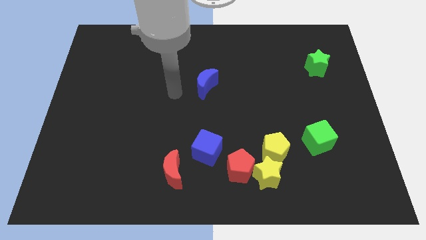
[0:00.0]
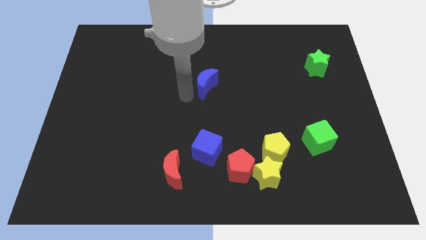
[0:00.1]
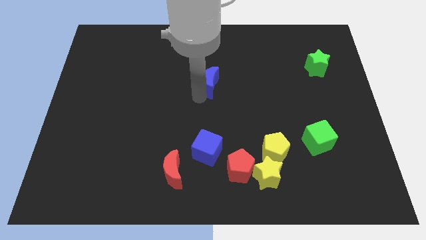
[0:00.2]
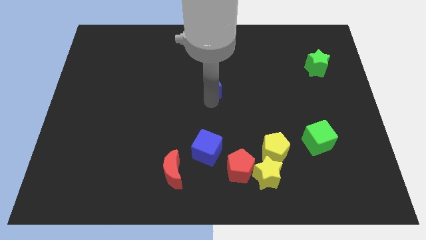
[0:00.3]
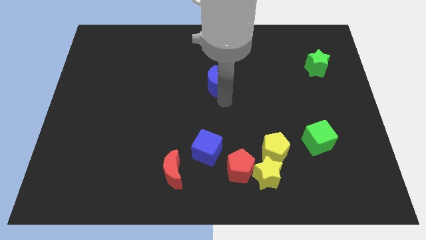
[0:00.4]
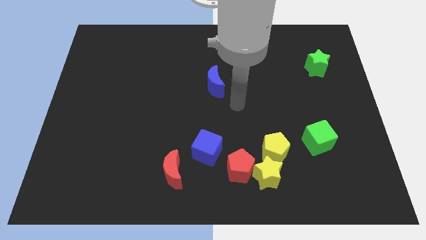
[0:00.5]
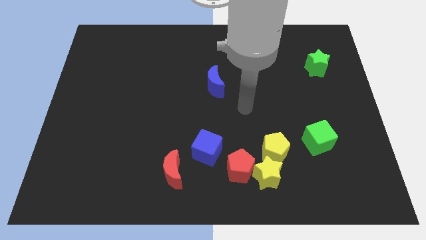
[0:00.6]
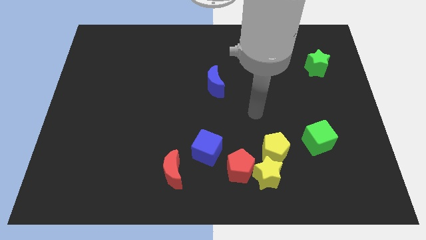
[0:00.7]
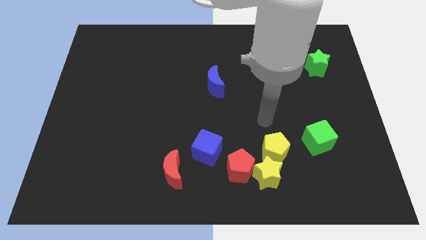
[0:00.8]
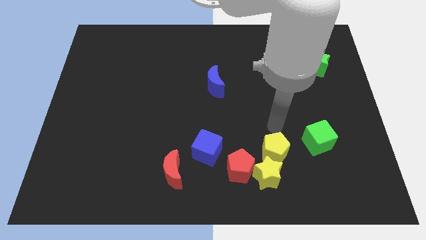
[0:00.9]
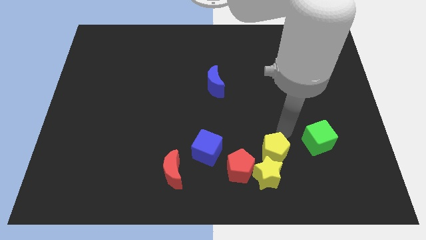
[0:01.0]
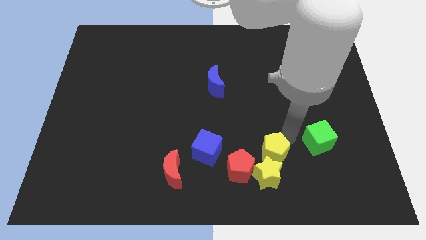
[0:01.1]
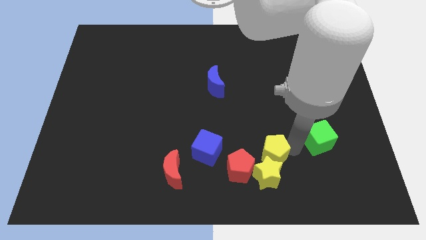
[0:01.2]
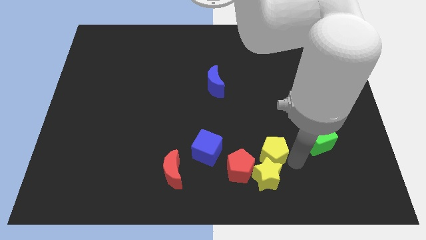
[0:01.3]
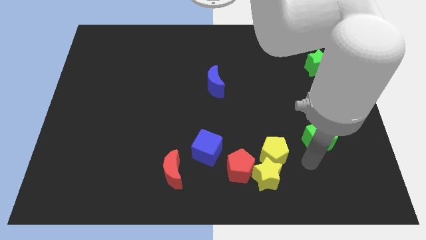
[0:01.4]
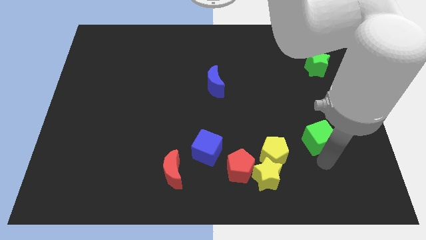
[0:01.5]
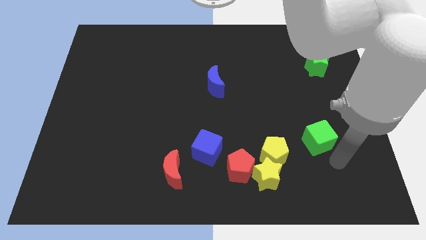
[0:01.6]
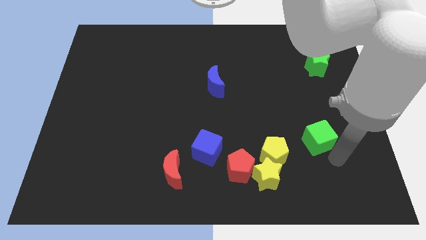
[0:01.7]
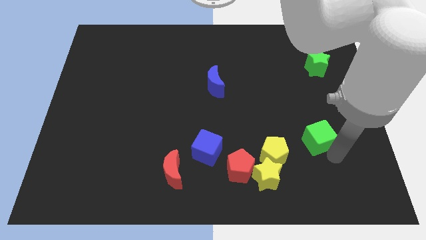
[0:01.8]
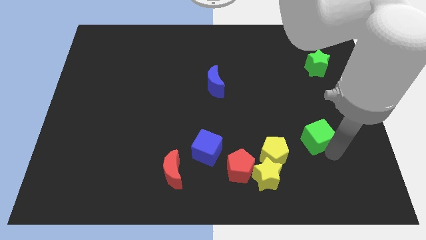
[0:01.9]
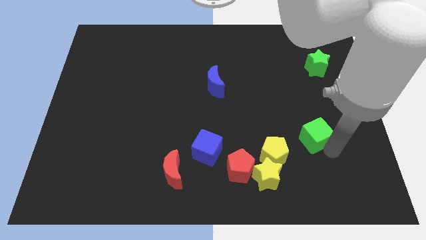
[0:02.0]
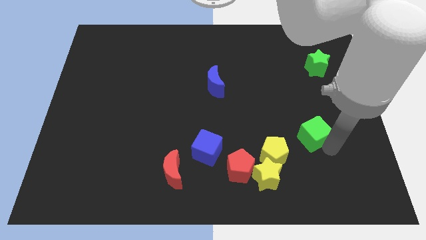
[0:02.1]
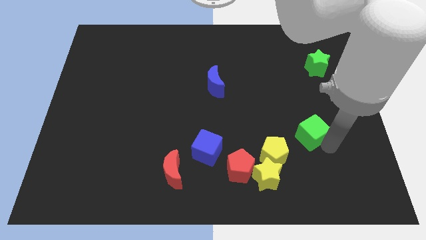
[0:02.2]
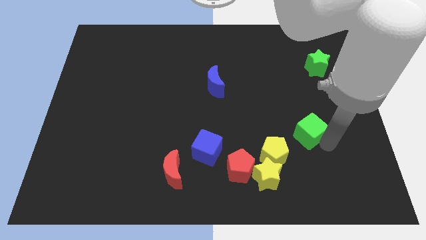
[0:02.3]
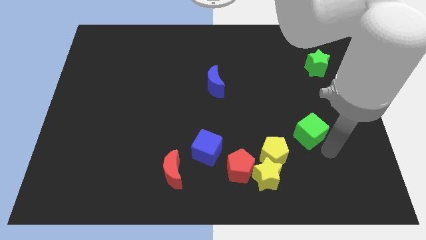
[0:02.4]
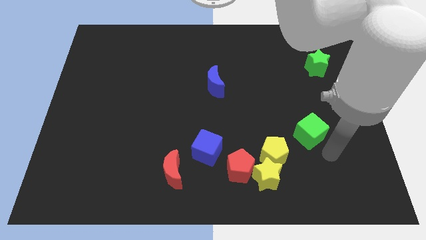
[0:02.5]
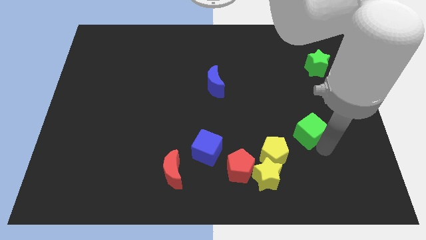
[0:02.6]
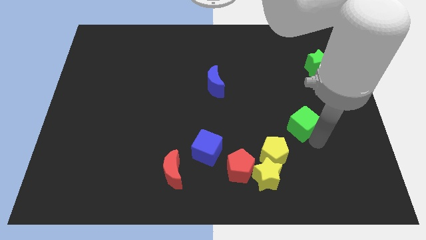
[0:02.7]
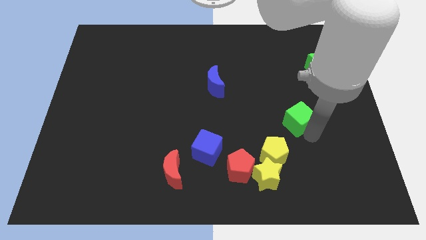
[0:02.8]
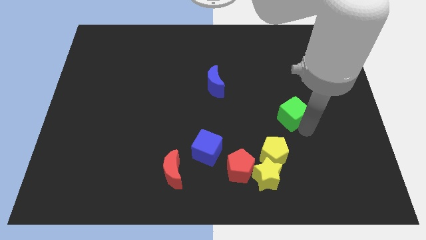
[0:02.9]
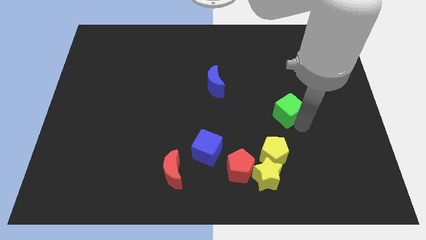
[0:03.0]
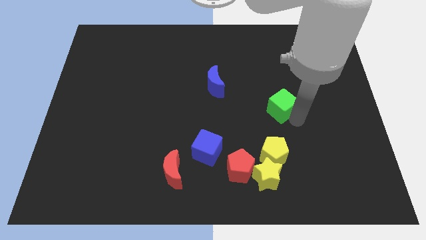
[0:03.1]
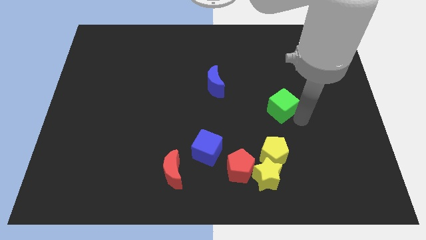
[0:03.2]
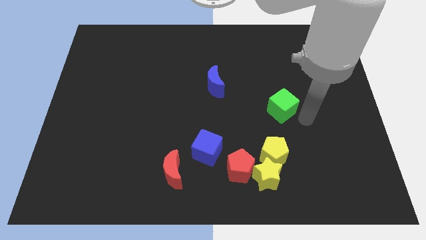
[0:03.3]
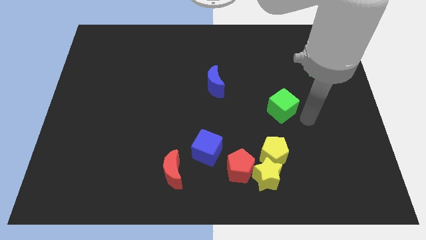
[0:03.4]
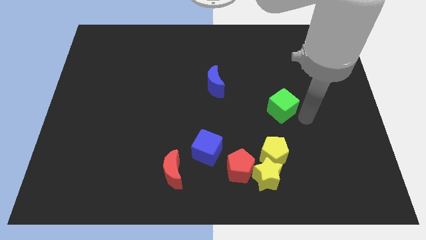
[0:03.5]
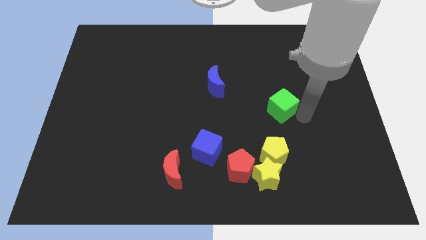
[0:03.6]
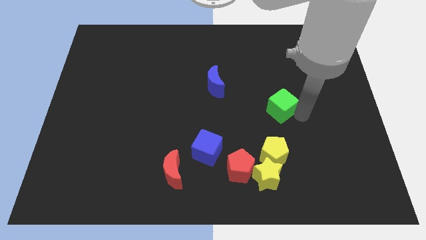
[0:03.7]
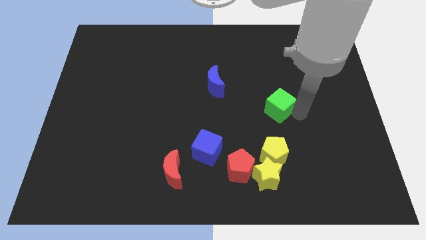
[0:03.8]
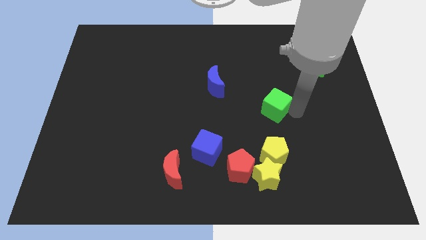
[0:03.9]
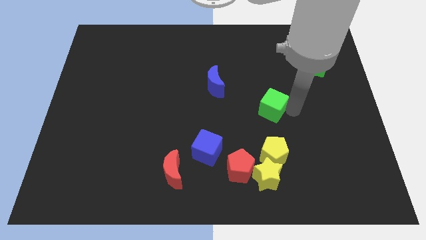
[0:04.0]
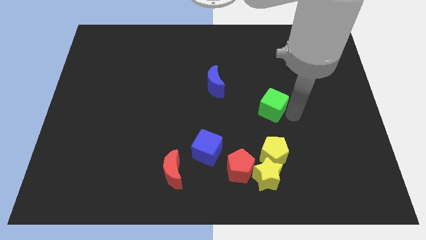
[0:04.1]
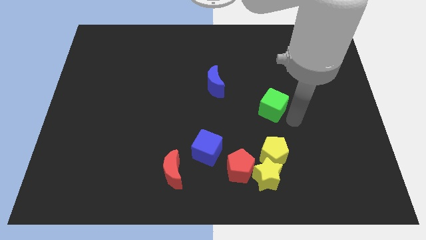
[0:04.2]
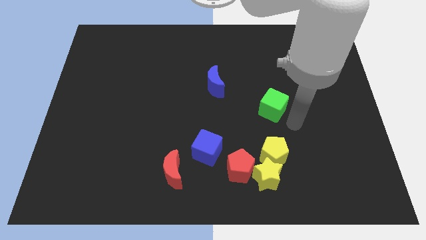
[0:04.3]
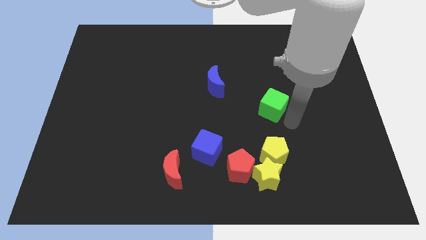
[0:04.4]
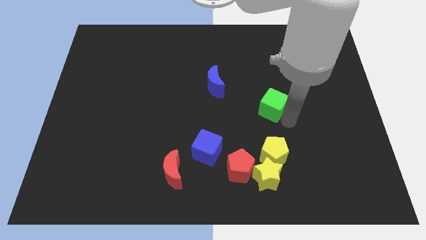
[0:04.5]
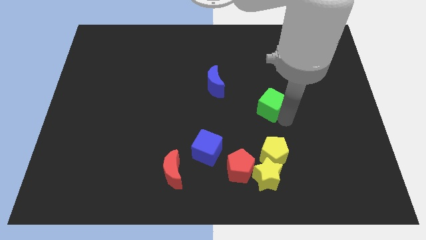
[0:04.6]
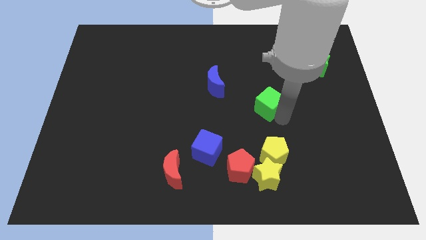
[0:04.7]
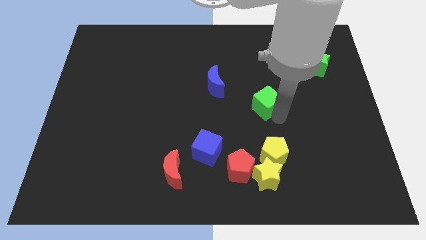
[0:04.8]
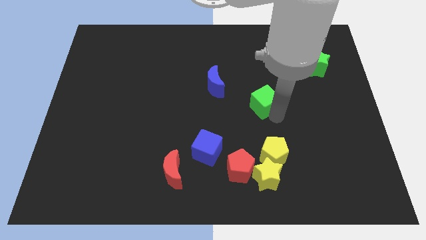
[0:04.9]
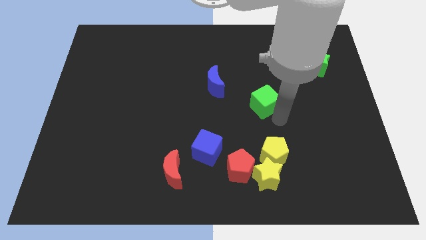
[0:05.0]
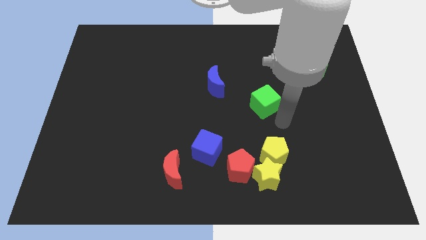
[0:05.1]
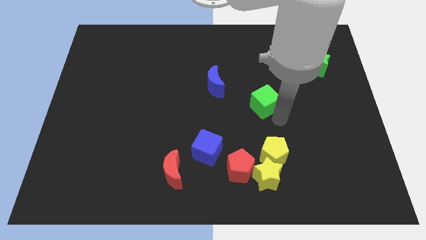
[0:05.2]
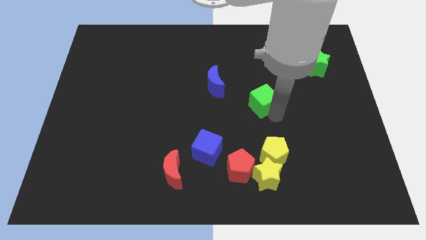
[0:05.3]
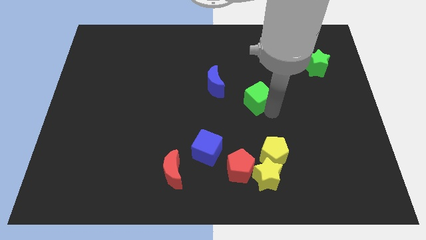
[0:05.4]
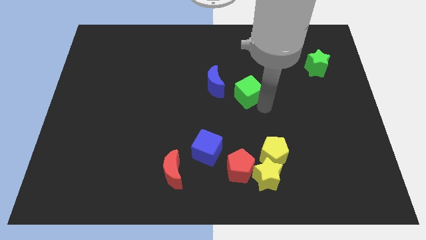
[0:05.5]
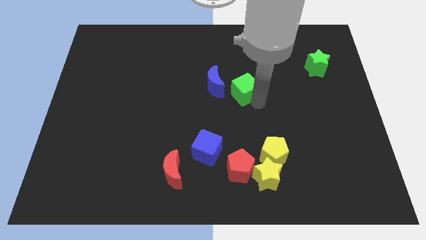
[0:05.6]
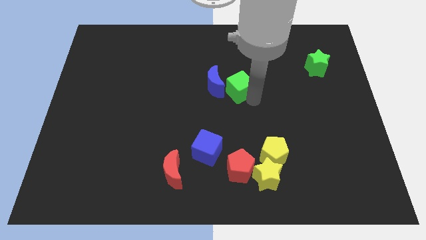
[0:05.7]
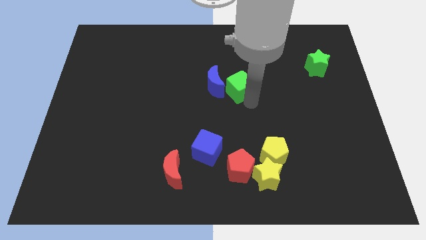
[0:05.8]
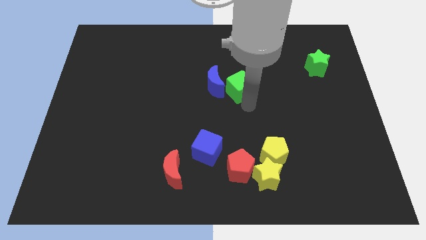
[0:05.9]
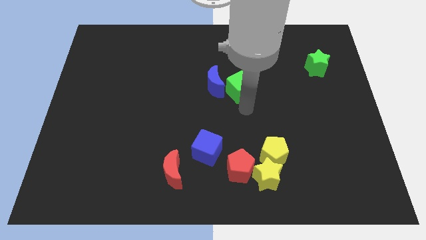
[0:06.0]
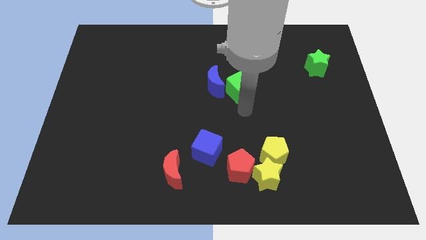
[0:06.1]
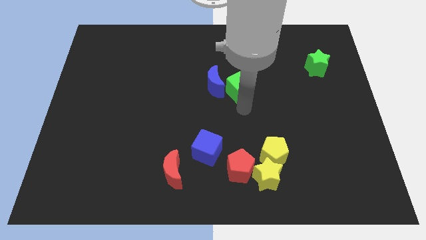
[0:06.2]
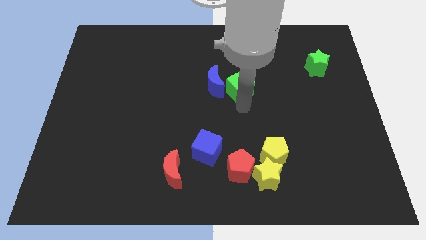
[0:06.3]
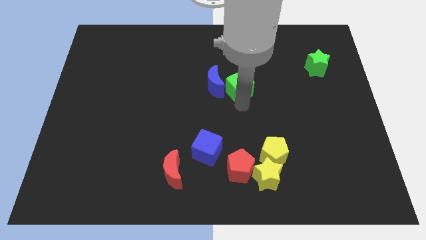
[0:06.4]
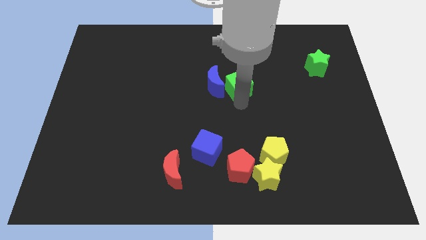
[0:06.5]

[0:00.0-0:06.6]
put the green cube to the top right side of the blue moon

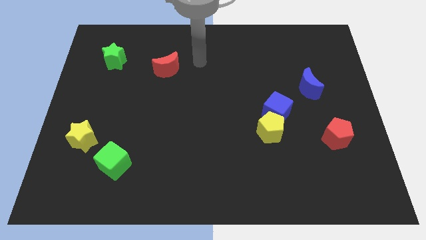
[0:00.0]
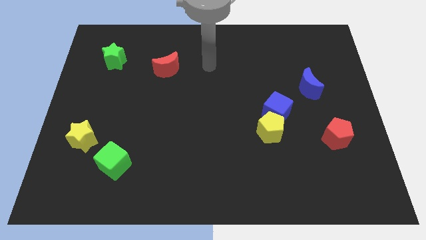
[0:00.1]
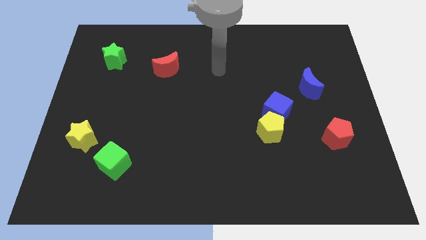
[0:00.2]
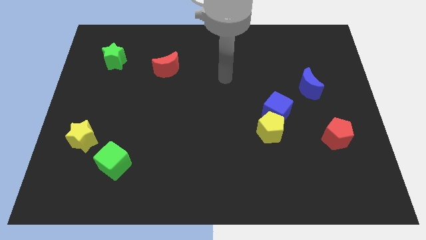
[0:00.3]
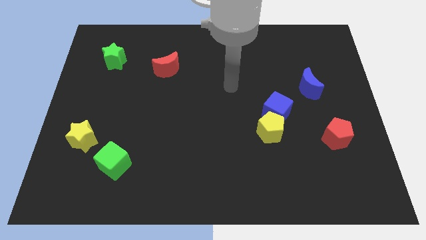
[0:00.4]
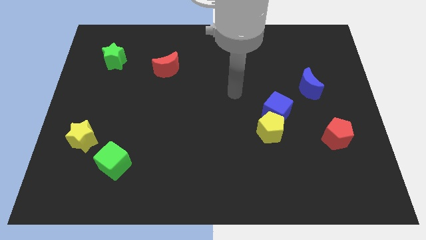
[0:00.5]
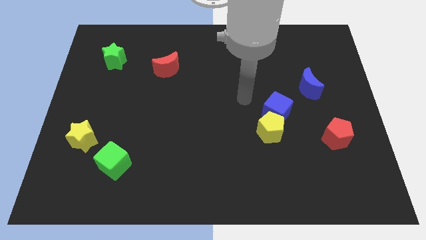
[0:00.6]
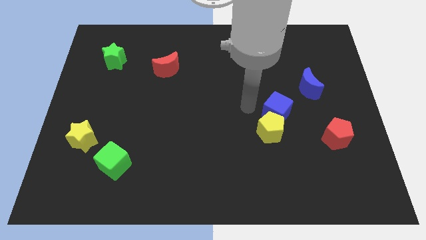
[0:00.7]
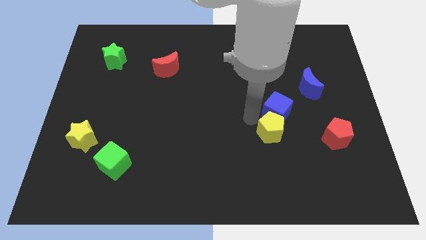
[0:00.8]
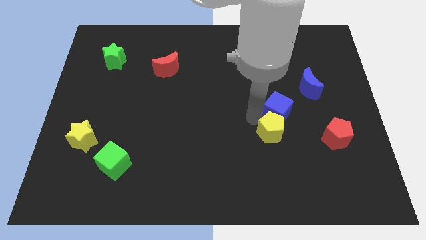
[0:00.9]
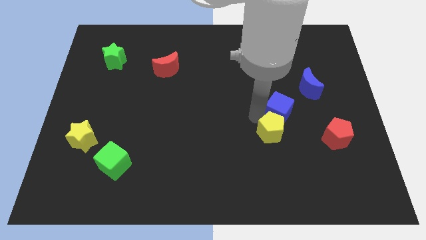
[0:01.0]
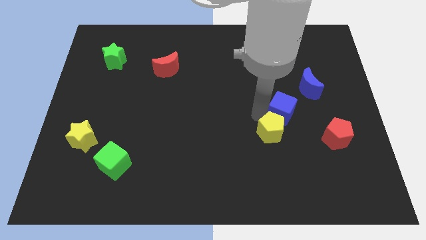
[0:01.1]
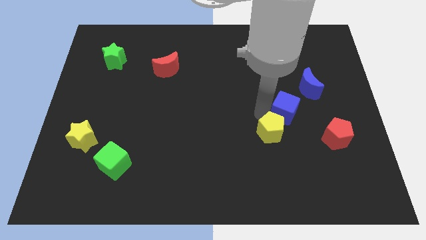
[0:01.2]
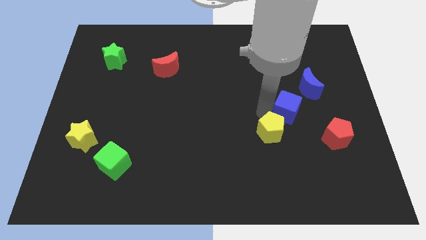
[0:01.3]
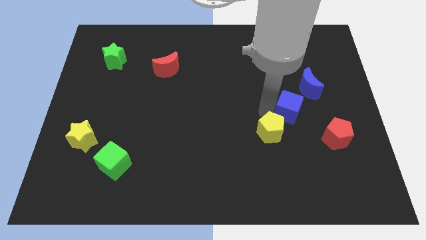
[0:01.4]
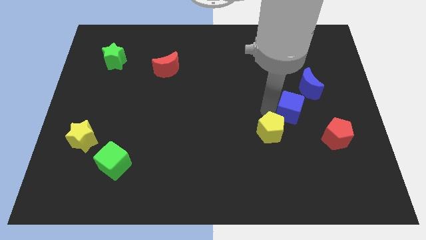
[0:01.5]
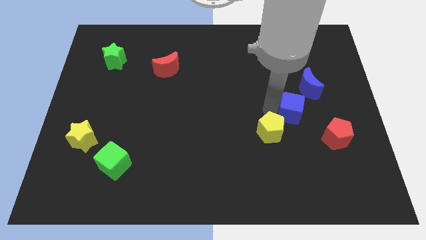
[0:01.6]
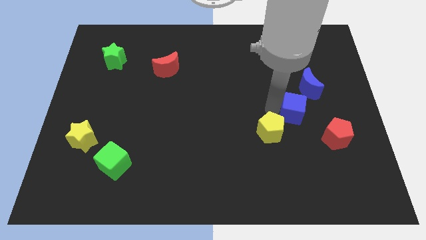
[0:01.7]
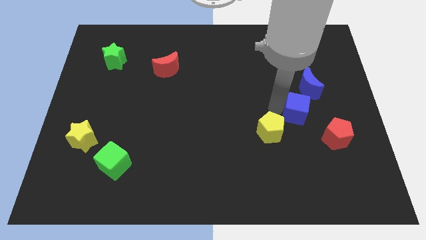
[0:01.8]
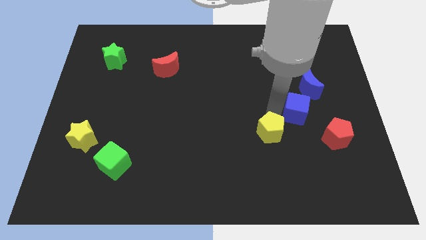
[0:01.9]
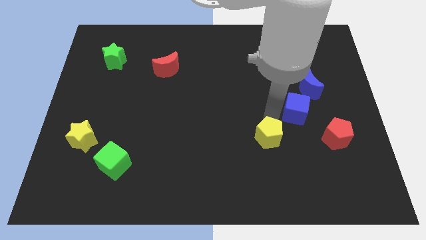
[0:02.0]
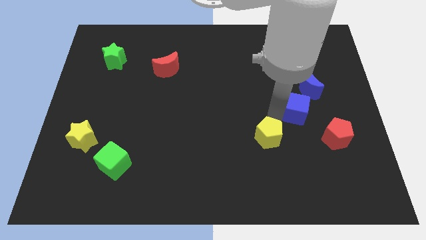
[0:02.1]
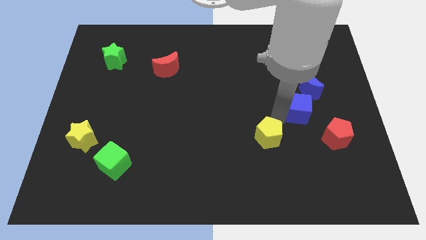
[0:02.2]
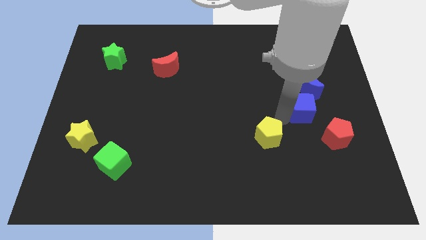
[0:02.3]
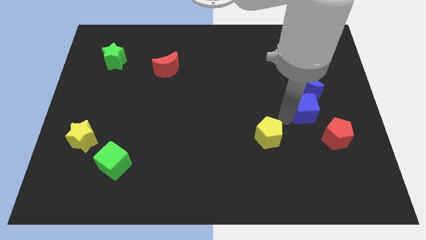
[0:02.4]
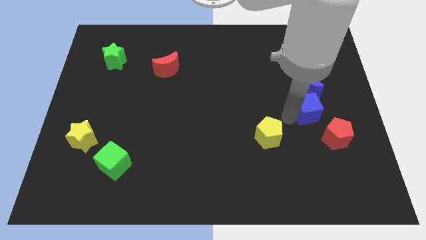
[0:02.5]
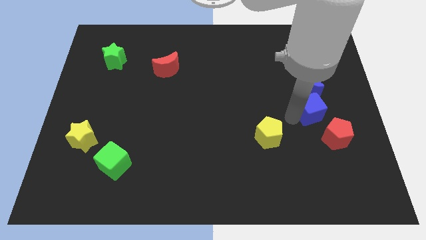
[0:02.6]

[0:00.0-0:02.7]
slide the blue cube to the top side of the red pentagon
